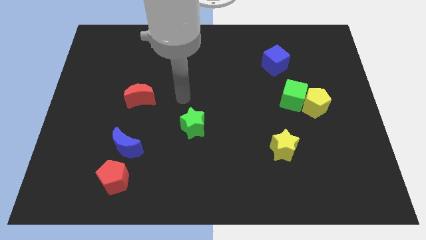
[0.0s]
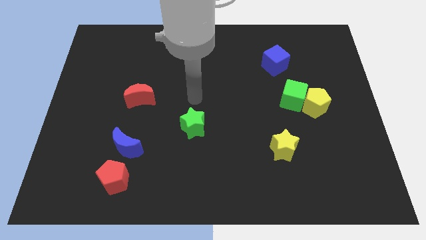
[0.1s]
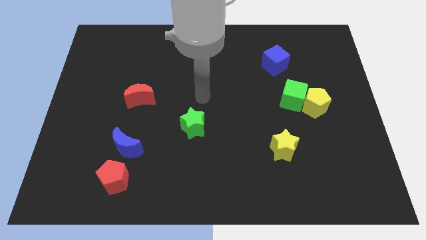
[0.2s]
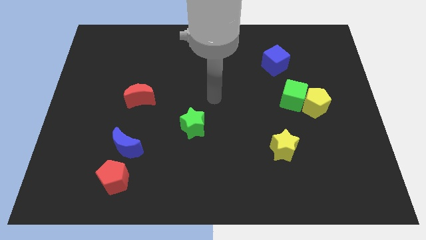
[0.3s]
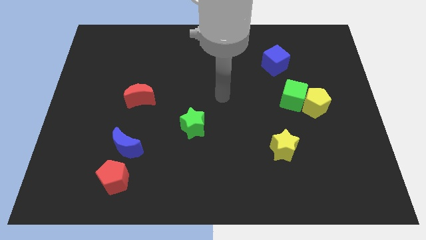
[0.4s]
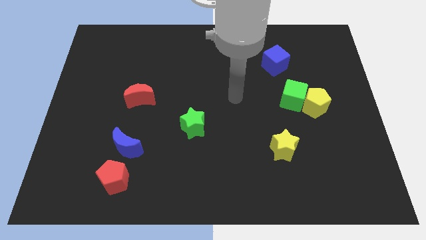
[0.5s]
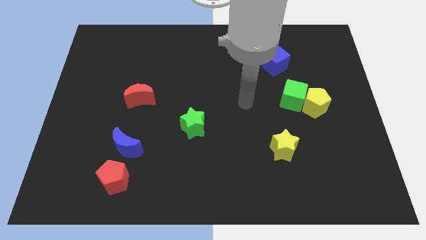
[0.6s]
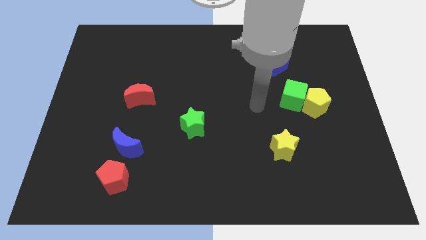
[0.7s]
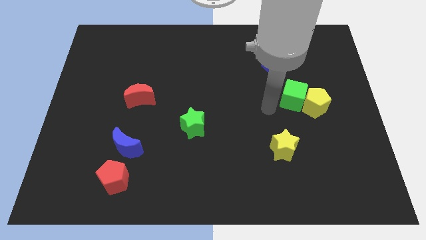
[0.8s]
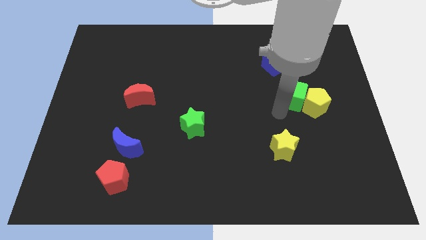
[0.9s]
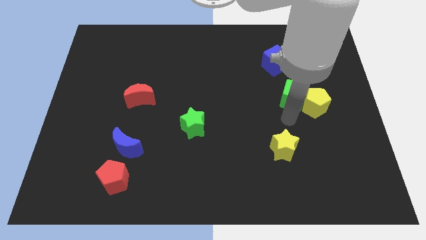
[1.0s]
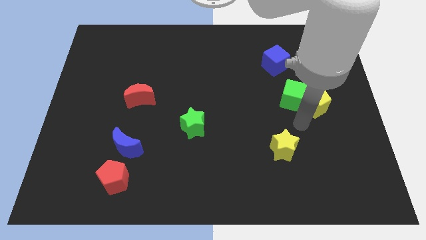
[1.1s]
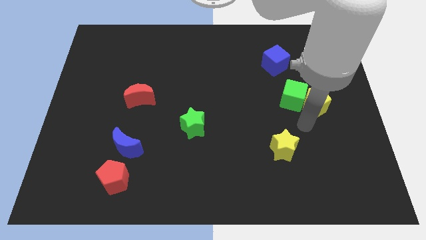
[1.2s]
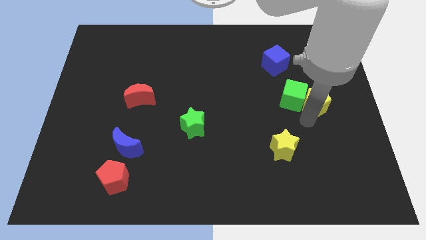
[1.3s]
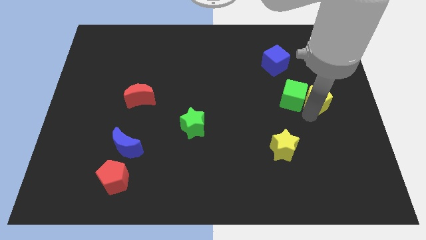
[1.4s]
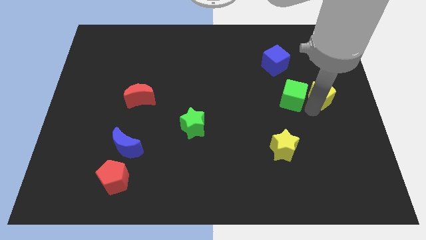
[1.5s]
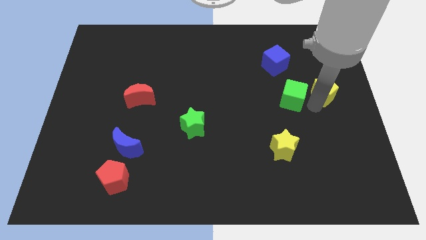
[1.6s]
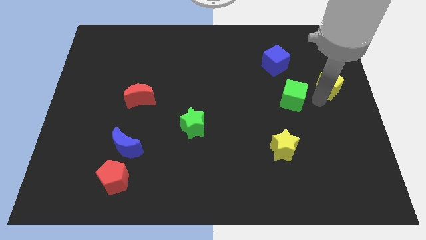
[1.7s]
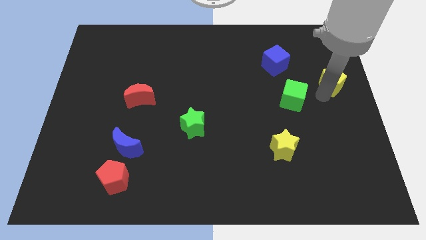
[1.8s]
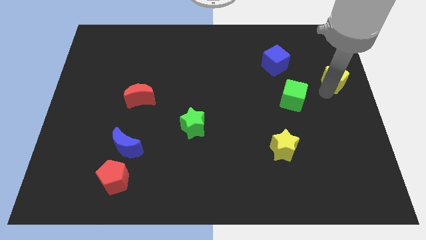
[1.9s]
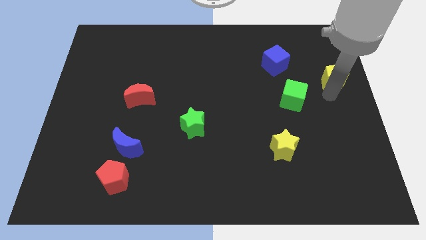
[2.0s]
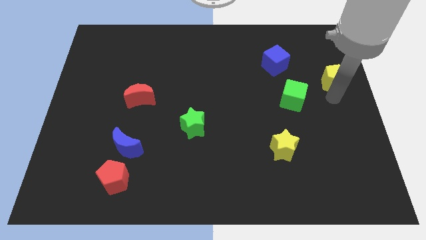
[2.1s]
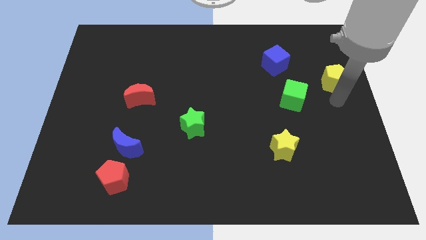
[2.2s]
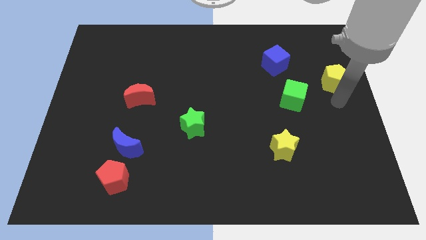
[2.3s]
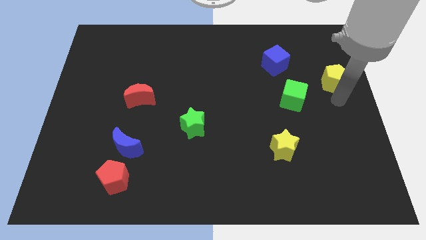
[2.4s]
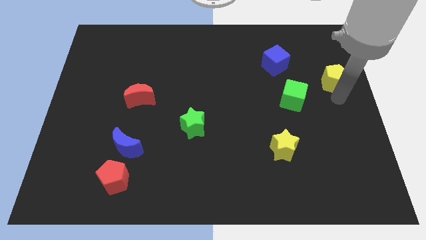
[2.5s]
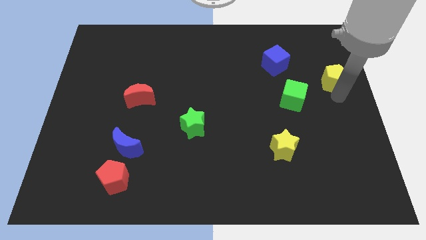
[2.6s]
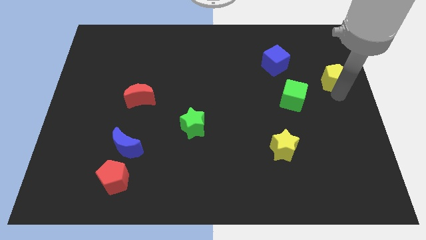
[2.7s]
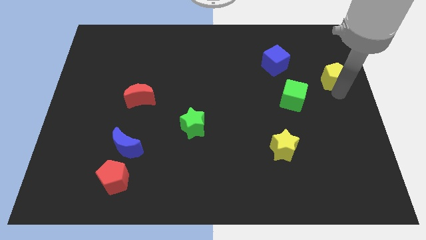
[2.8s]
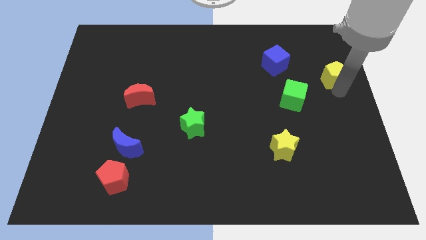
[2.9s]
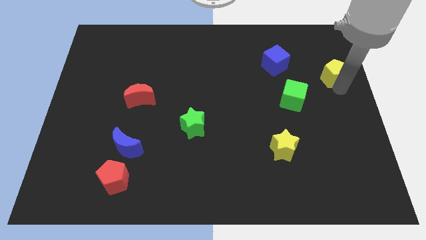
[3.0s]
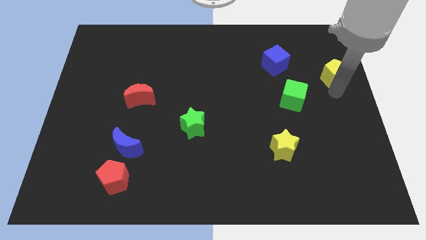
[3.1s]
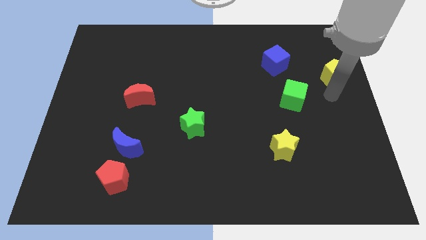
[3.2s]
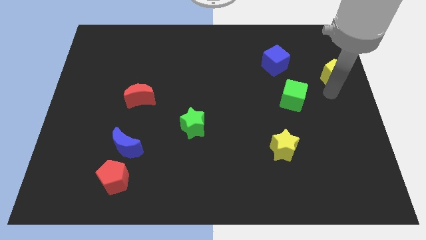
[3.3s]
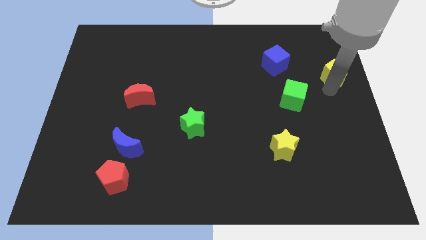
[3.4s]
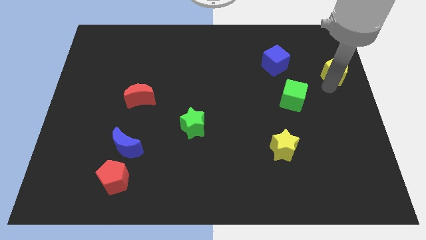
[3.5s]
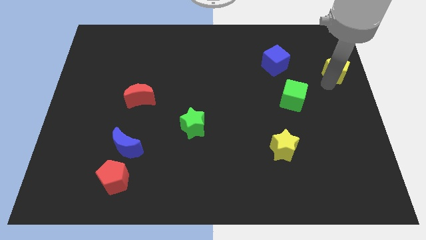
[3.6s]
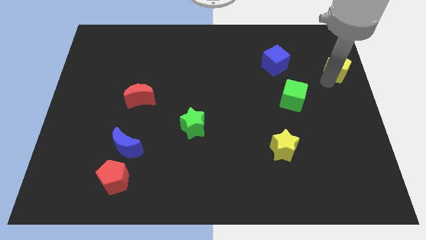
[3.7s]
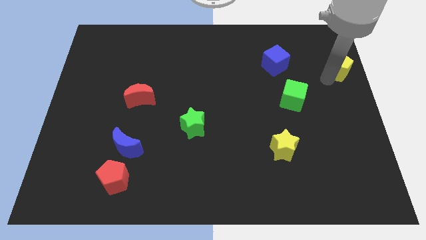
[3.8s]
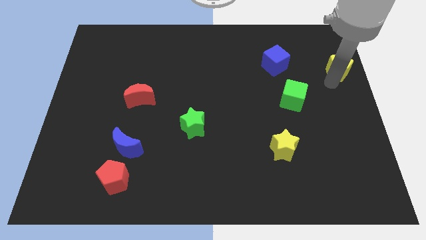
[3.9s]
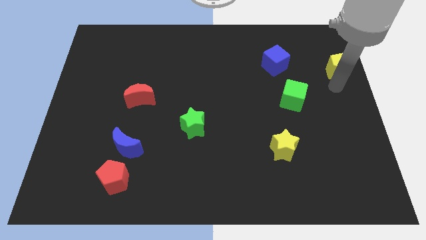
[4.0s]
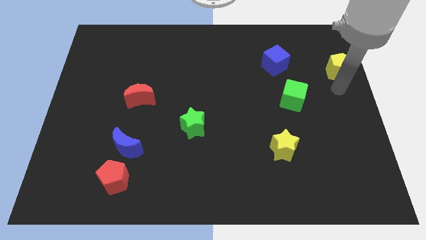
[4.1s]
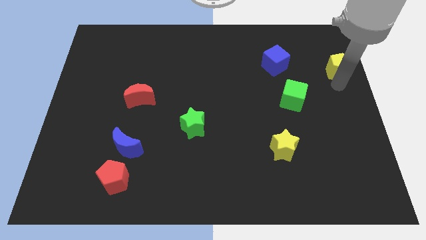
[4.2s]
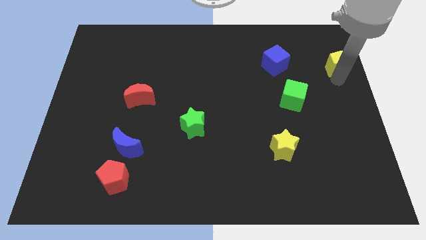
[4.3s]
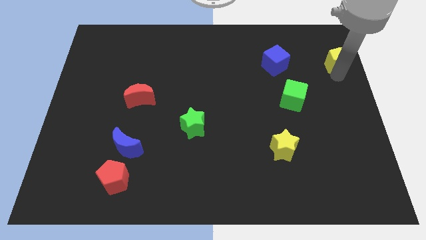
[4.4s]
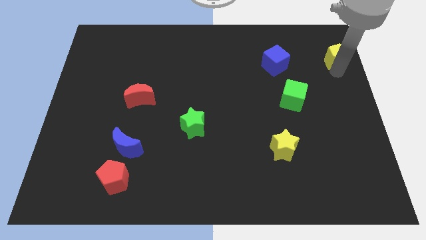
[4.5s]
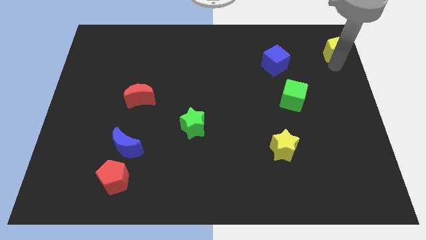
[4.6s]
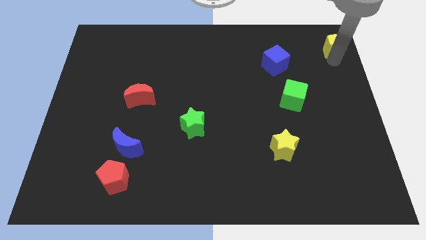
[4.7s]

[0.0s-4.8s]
push the yellow pentagon to the top right corner

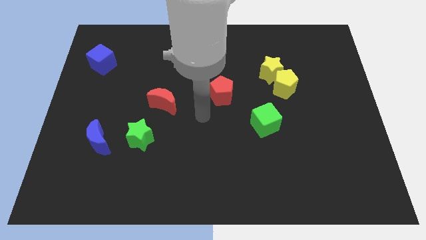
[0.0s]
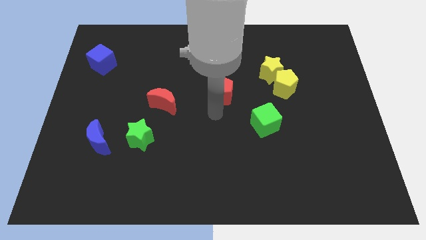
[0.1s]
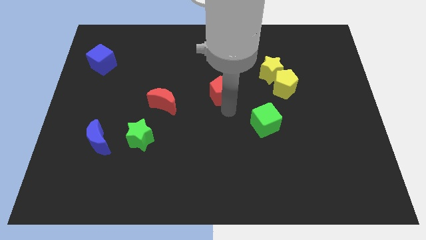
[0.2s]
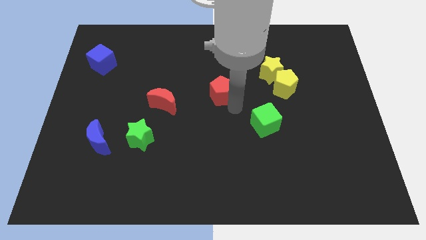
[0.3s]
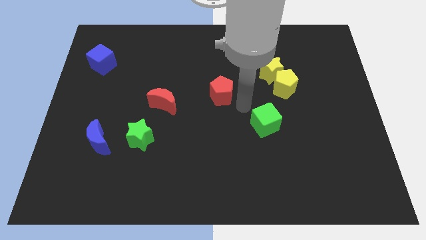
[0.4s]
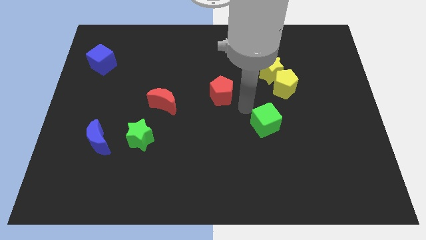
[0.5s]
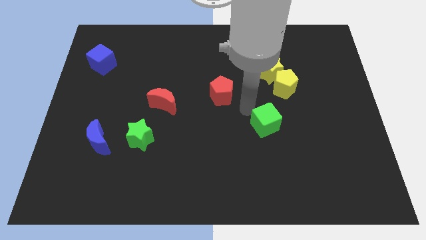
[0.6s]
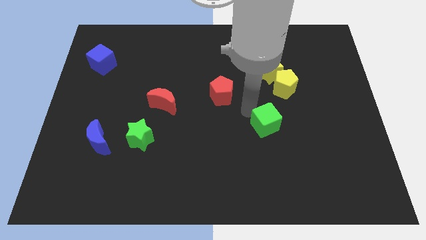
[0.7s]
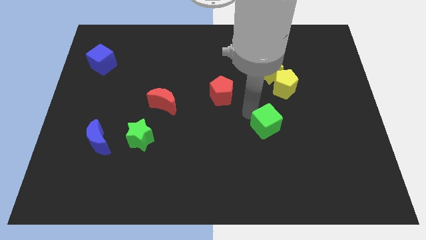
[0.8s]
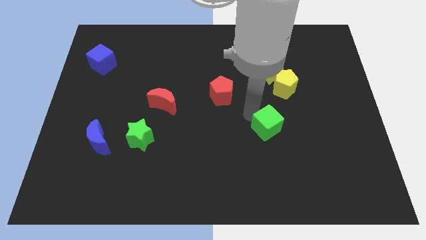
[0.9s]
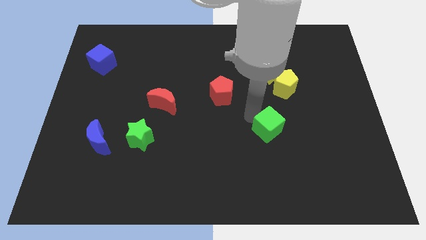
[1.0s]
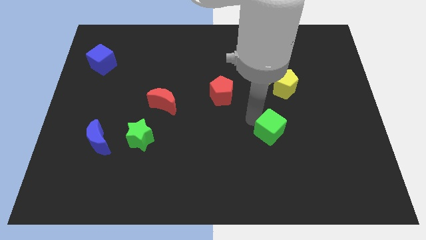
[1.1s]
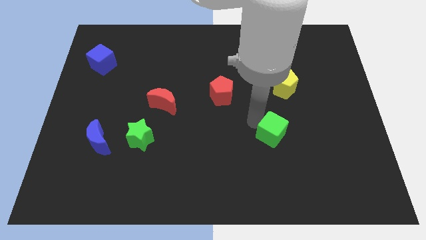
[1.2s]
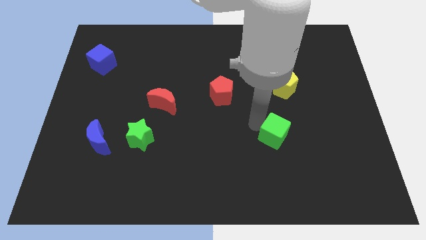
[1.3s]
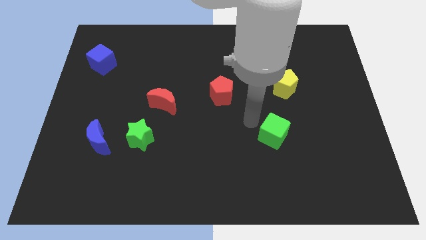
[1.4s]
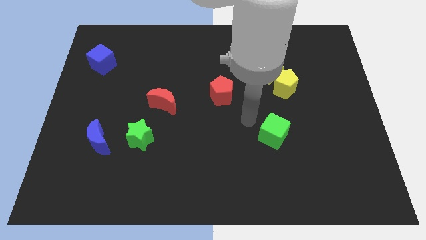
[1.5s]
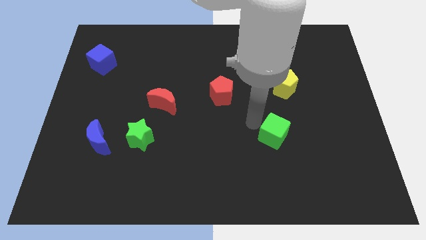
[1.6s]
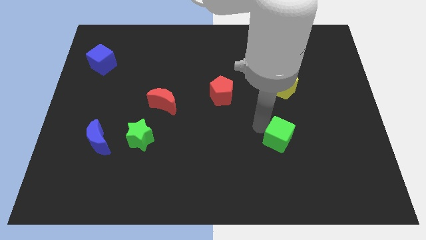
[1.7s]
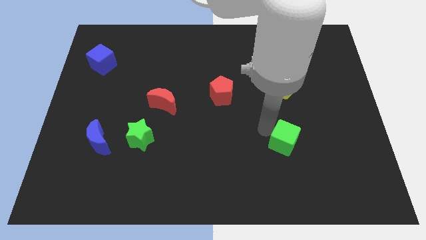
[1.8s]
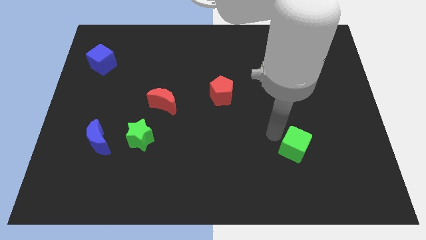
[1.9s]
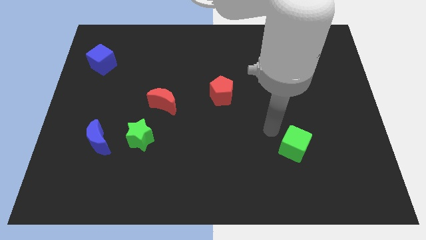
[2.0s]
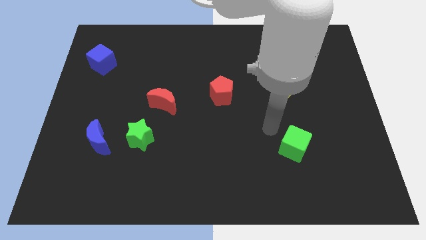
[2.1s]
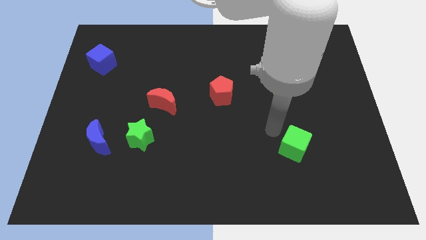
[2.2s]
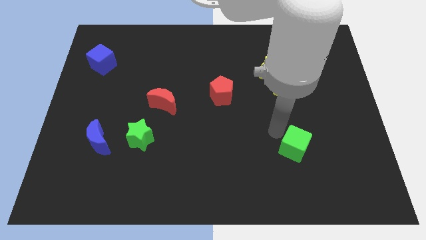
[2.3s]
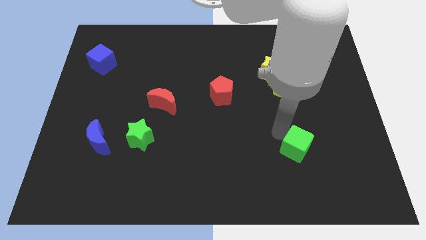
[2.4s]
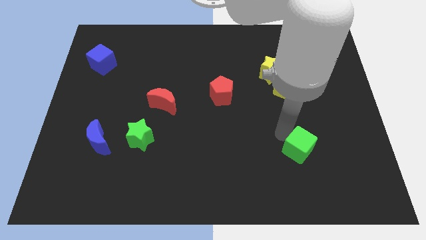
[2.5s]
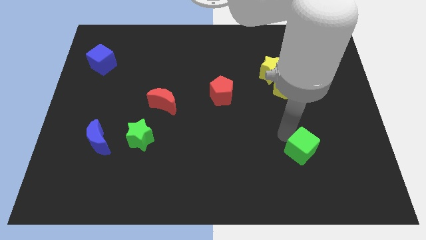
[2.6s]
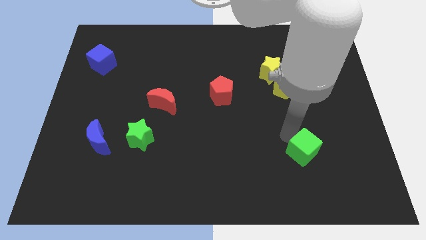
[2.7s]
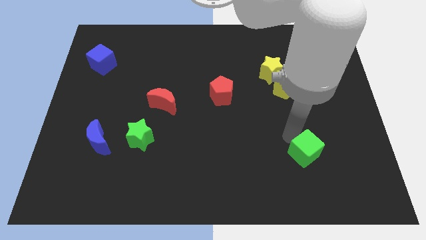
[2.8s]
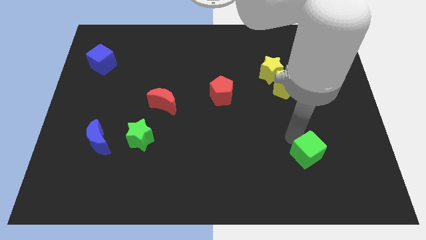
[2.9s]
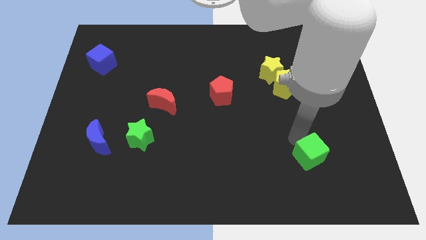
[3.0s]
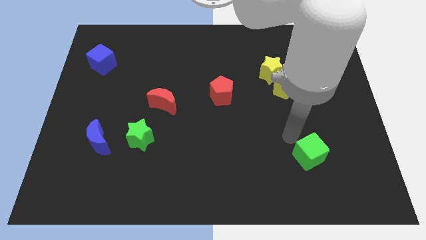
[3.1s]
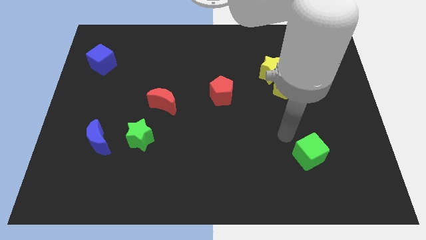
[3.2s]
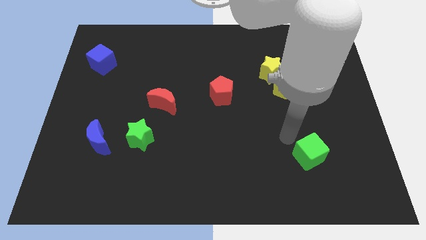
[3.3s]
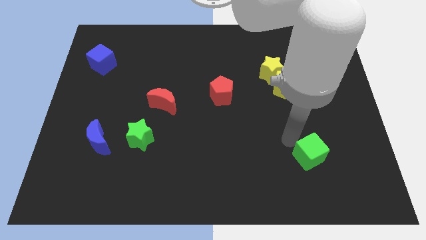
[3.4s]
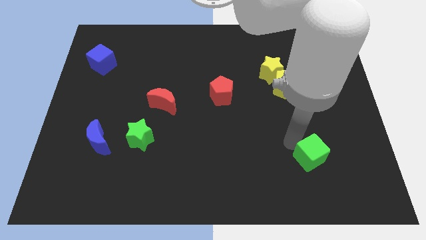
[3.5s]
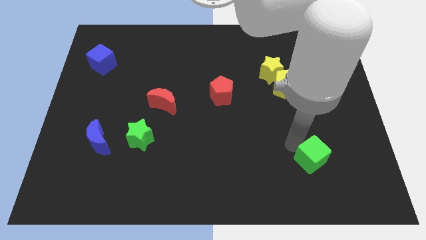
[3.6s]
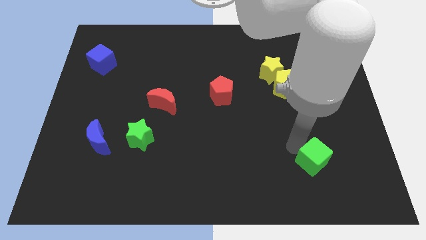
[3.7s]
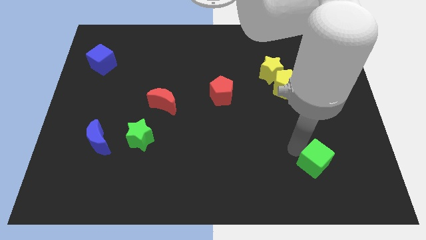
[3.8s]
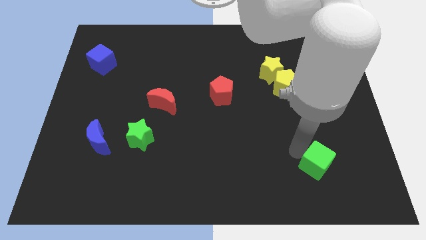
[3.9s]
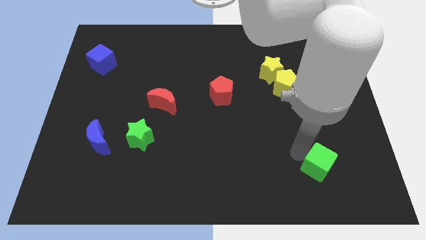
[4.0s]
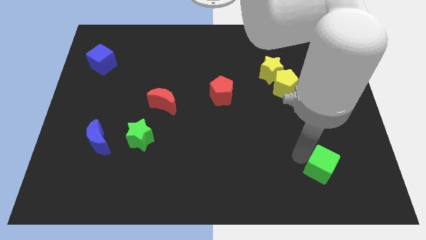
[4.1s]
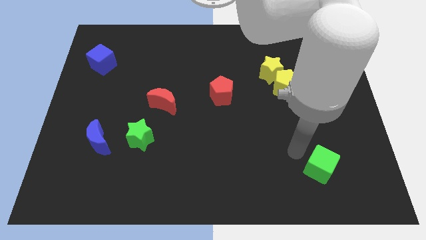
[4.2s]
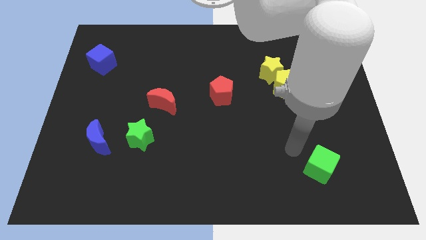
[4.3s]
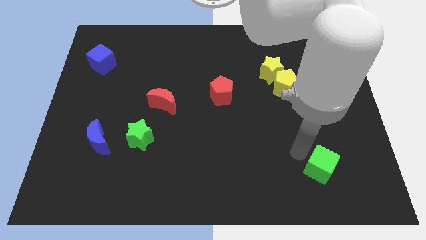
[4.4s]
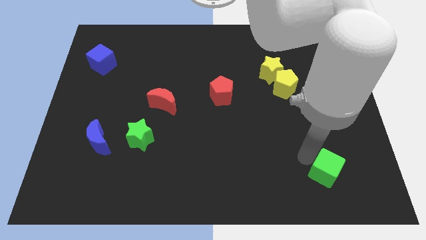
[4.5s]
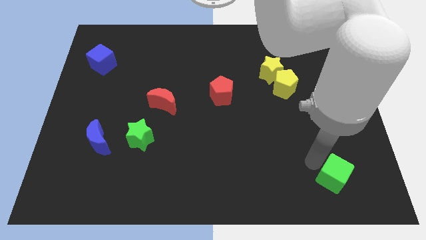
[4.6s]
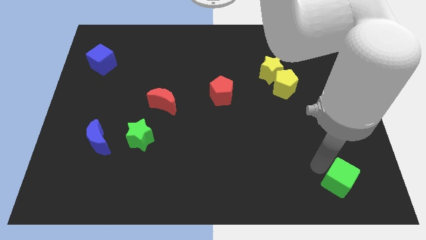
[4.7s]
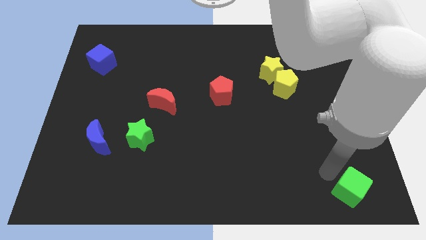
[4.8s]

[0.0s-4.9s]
put the green cube to the lower right corner
